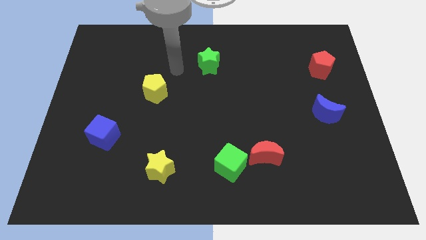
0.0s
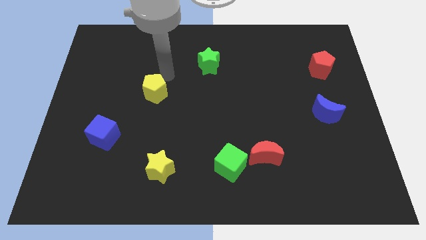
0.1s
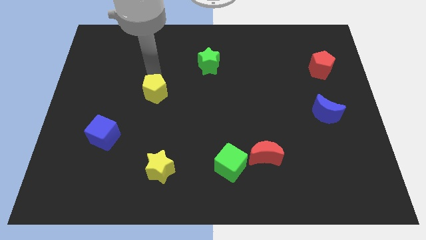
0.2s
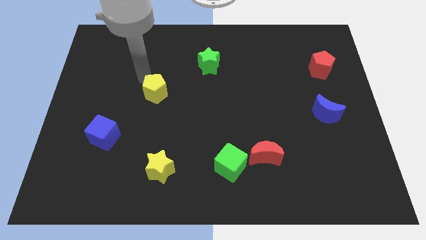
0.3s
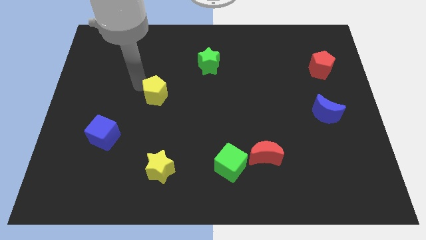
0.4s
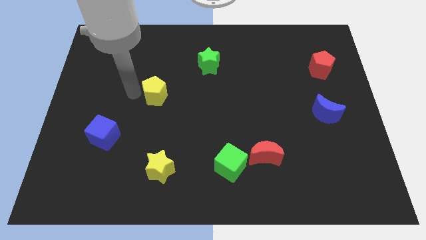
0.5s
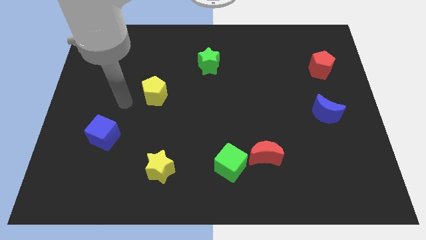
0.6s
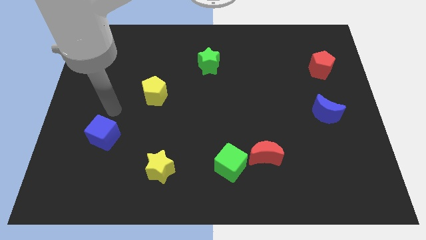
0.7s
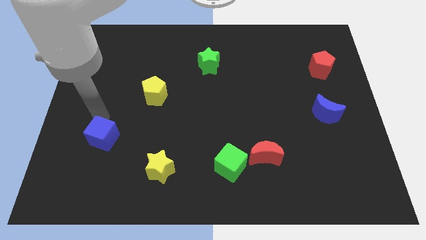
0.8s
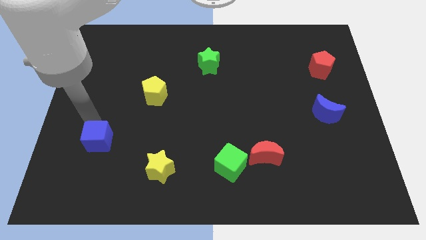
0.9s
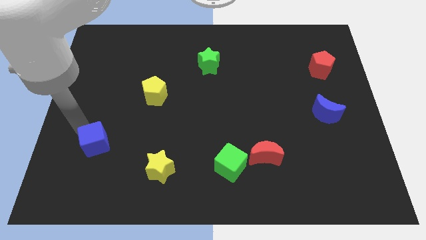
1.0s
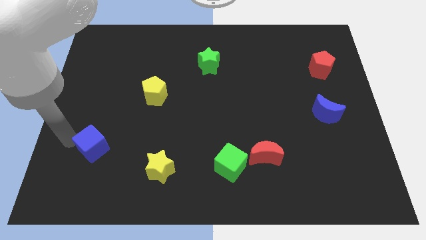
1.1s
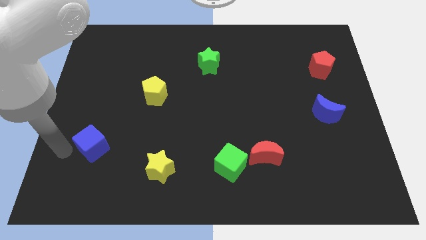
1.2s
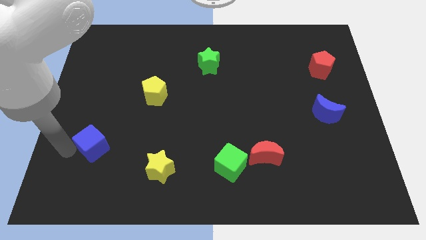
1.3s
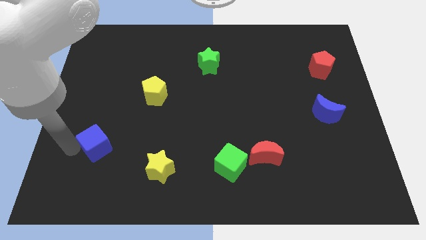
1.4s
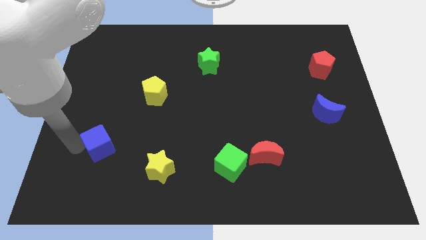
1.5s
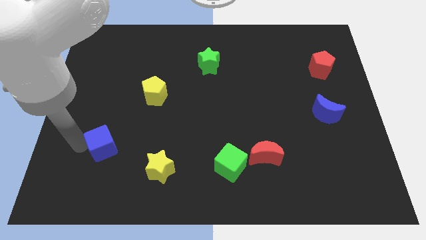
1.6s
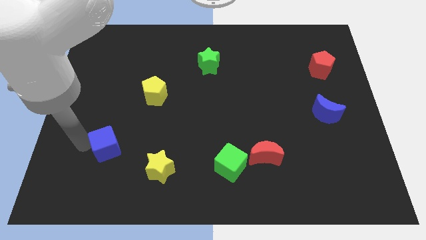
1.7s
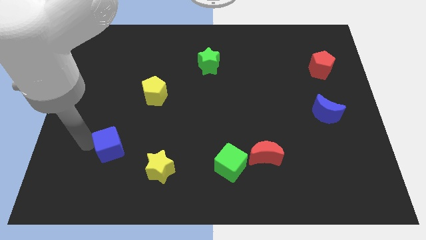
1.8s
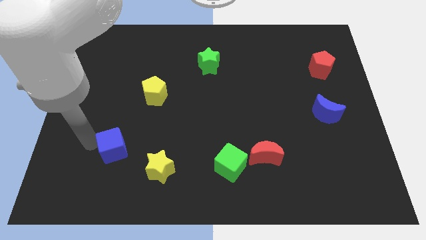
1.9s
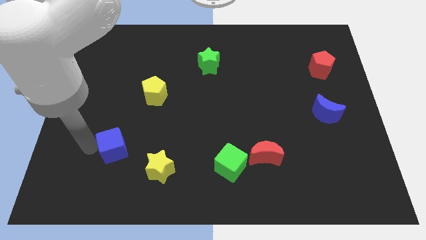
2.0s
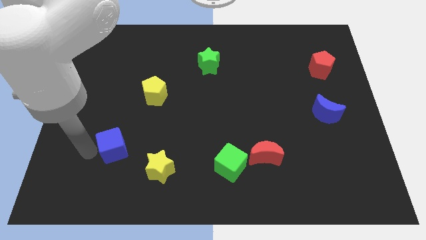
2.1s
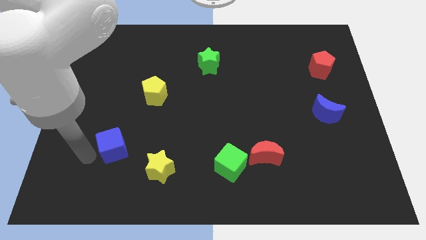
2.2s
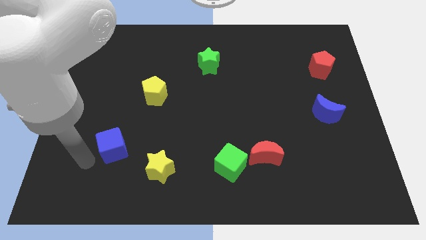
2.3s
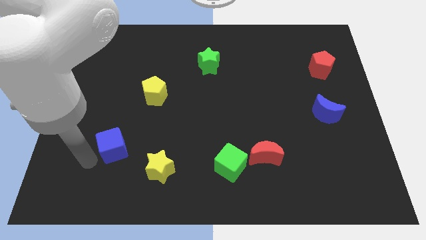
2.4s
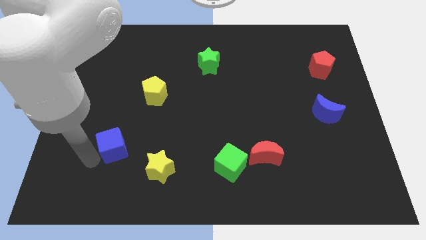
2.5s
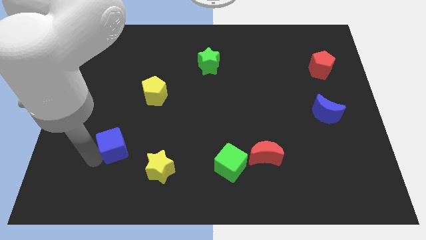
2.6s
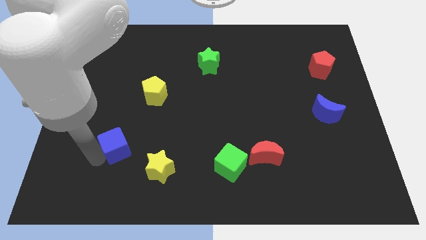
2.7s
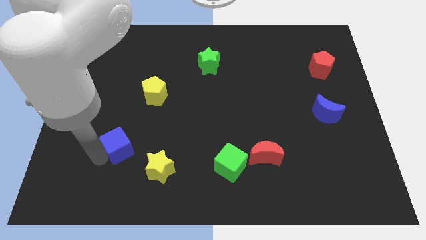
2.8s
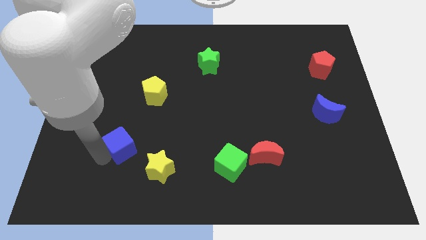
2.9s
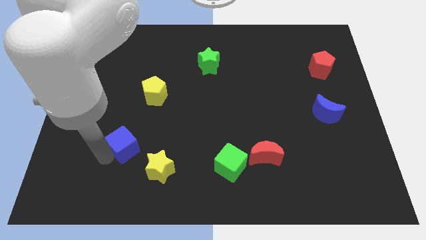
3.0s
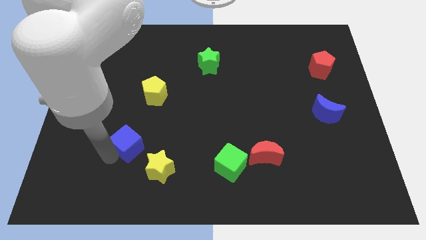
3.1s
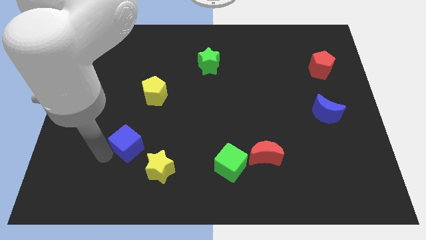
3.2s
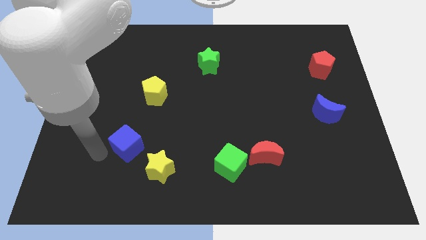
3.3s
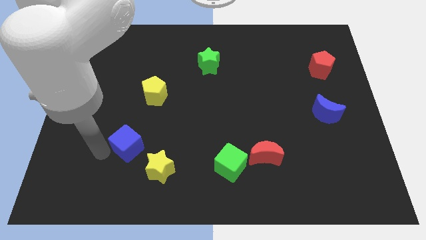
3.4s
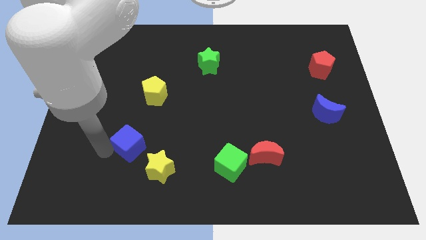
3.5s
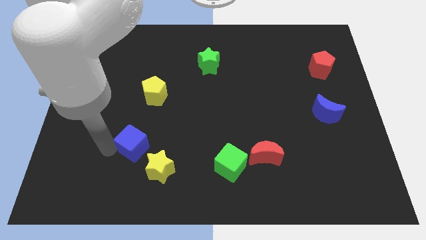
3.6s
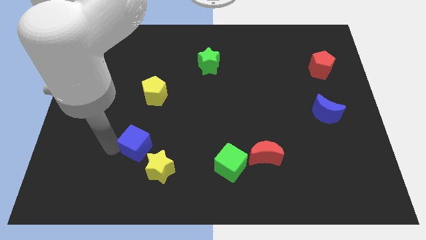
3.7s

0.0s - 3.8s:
slightly move the blue cube to the right

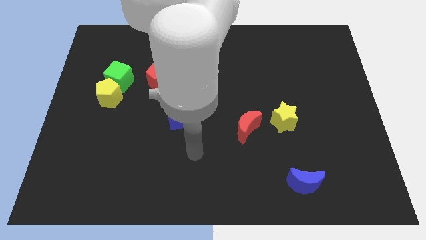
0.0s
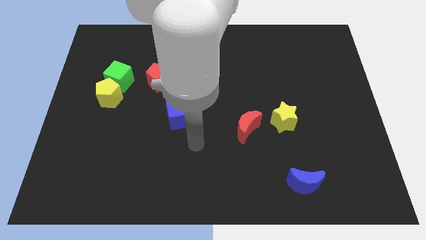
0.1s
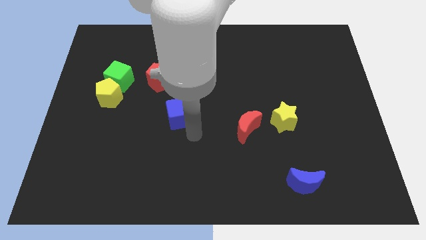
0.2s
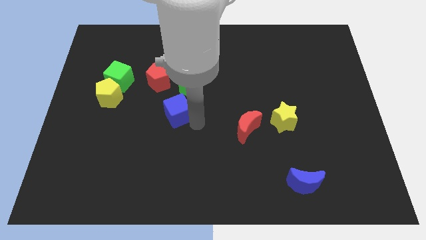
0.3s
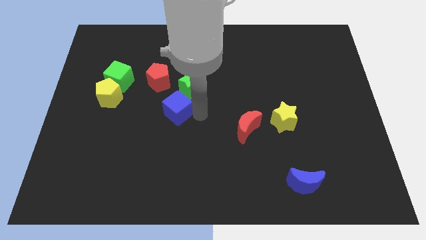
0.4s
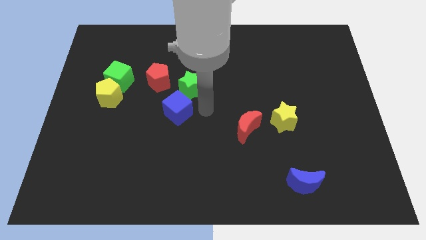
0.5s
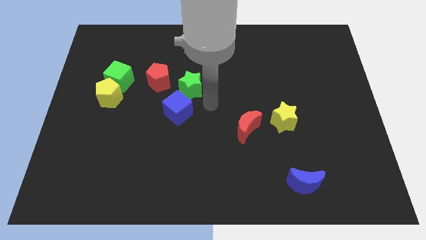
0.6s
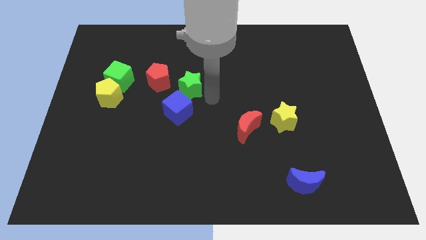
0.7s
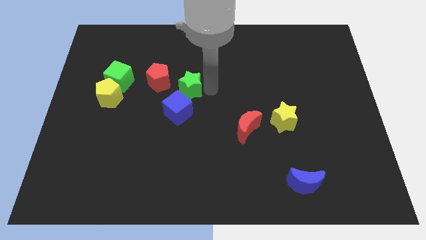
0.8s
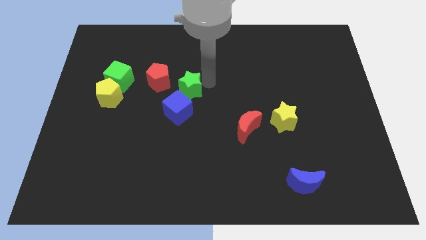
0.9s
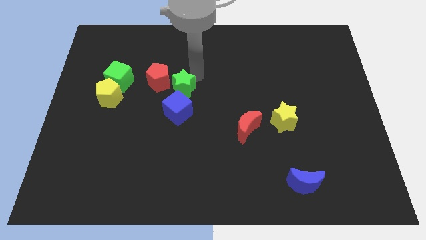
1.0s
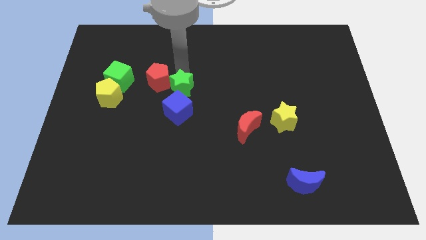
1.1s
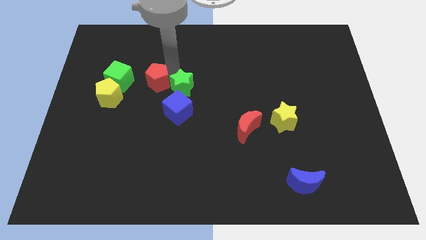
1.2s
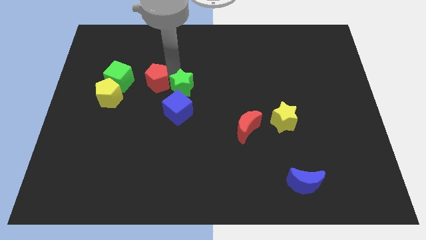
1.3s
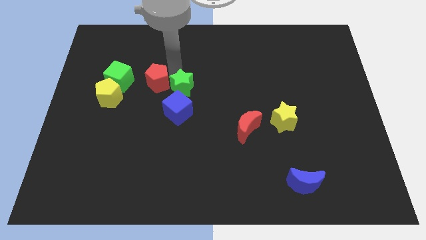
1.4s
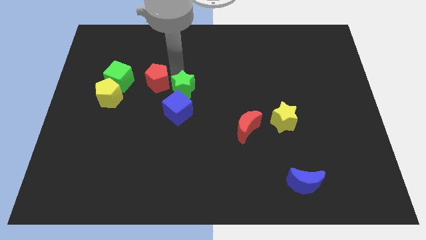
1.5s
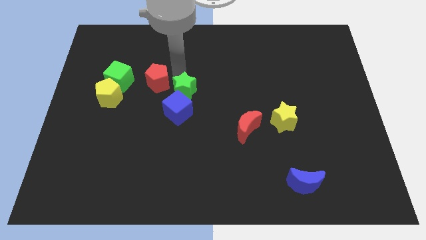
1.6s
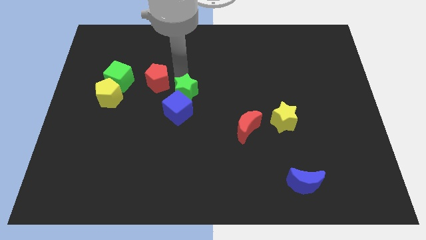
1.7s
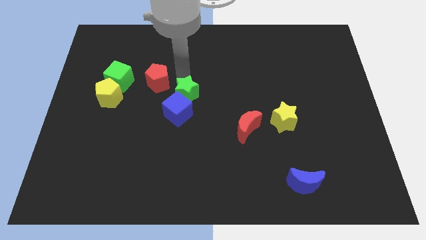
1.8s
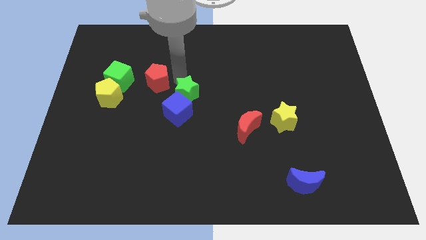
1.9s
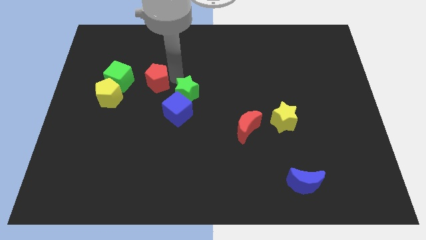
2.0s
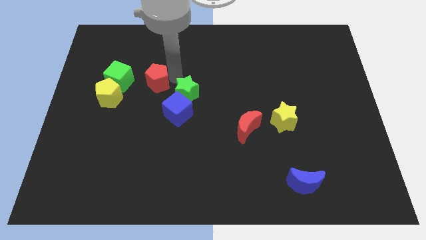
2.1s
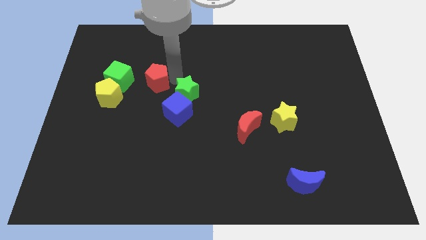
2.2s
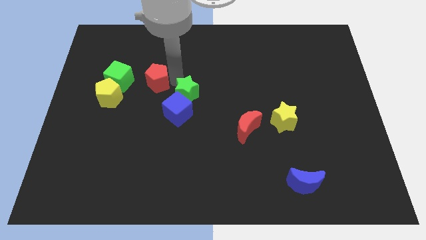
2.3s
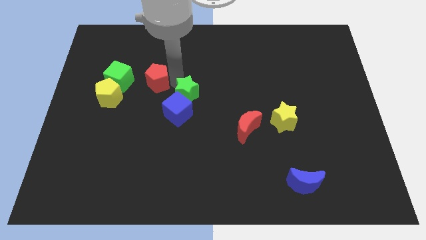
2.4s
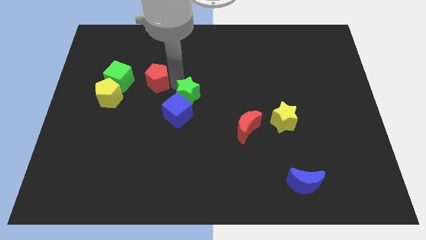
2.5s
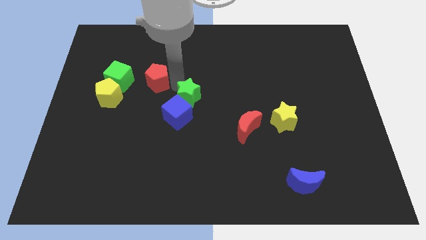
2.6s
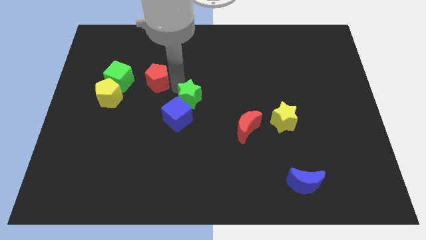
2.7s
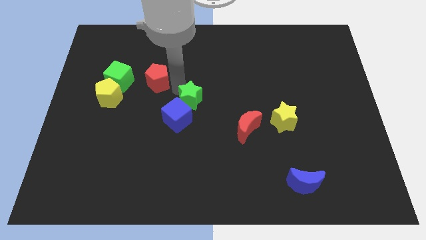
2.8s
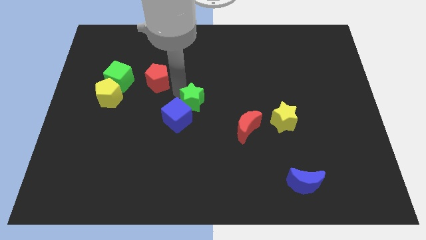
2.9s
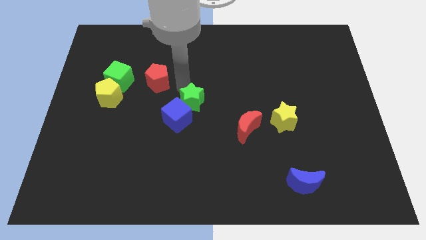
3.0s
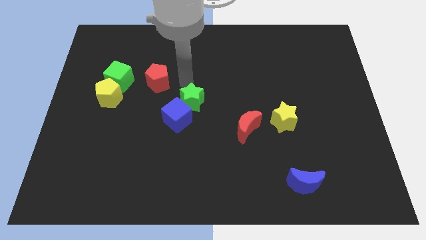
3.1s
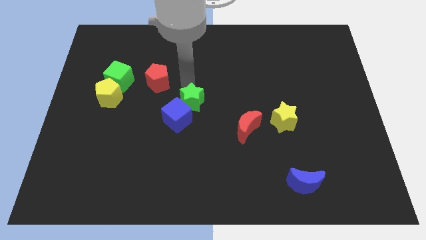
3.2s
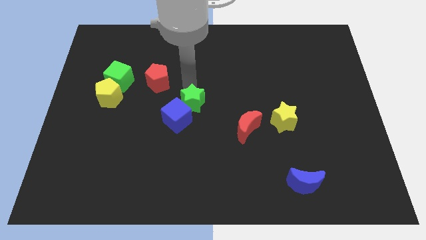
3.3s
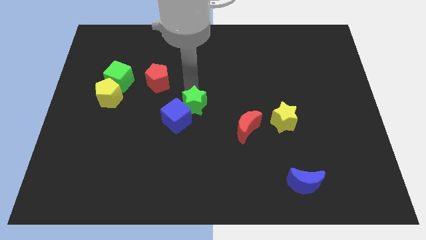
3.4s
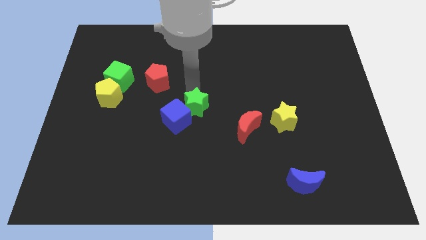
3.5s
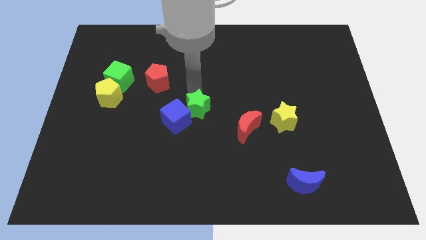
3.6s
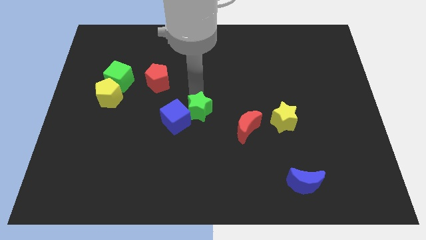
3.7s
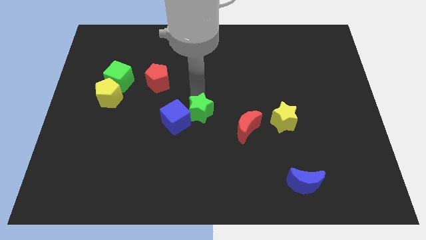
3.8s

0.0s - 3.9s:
slightly push the green star down

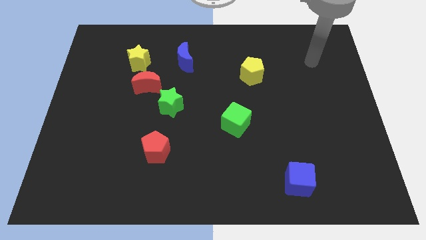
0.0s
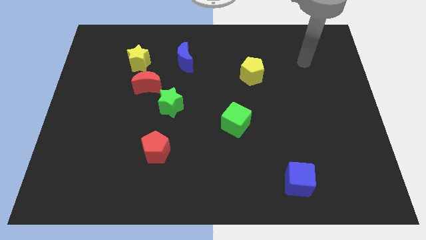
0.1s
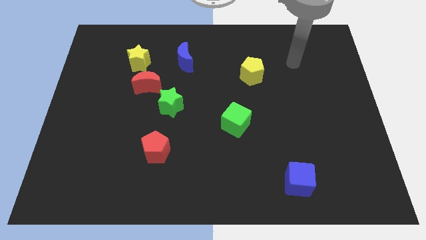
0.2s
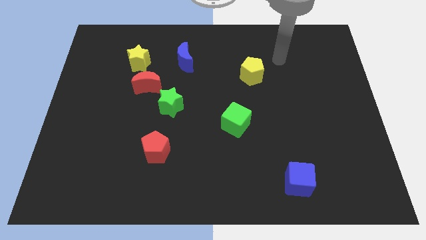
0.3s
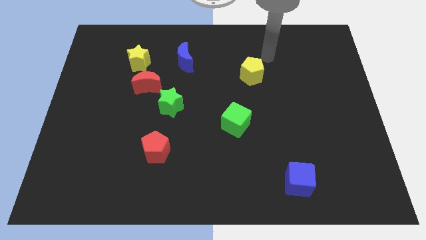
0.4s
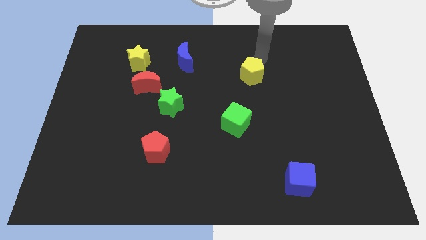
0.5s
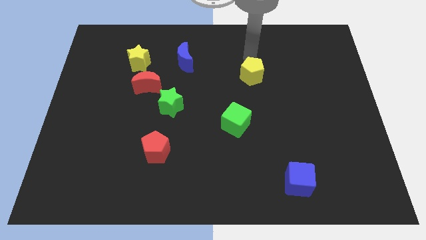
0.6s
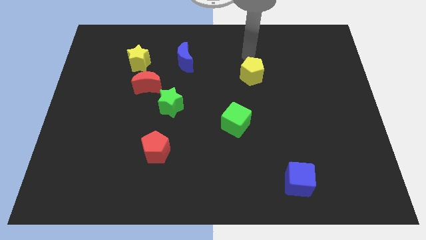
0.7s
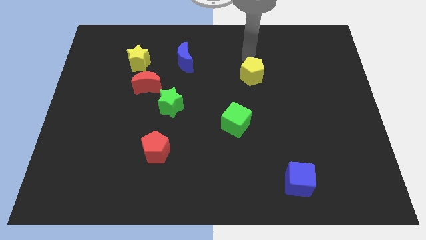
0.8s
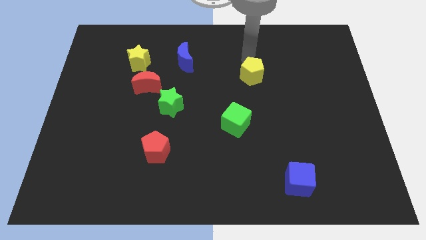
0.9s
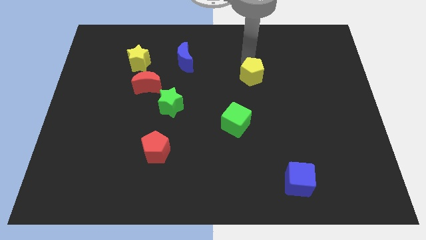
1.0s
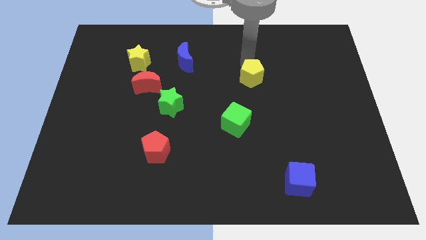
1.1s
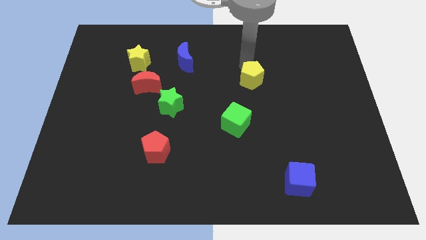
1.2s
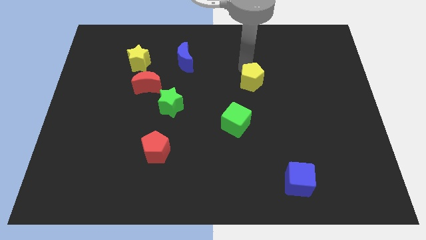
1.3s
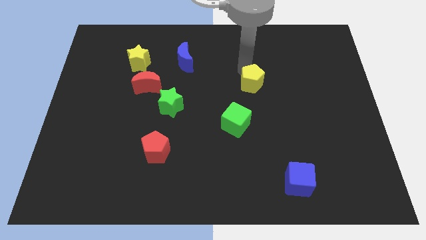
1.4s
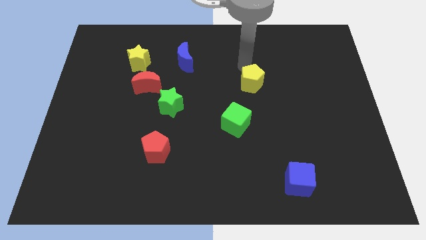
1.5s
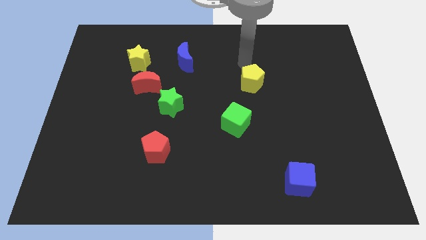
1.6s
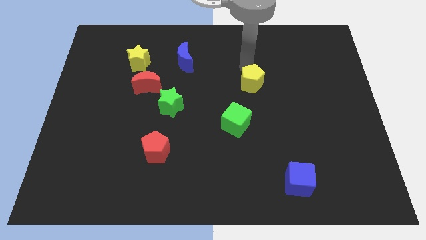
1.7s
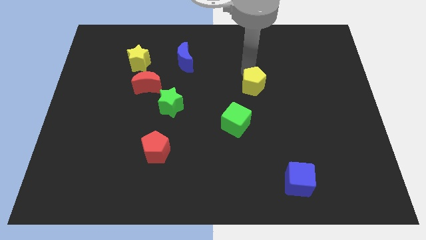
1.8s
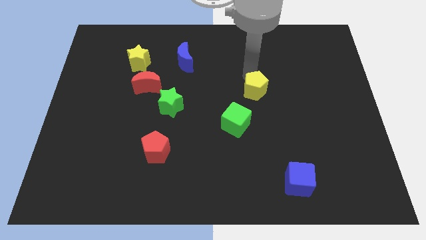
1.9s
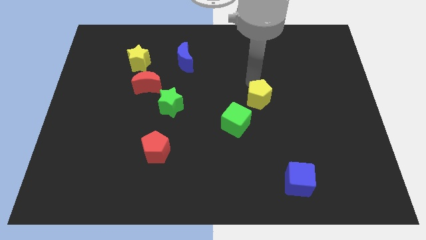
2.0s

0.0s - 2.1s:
slide the yellow pentagon a bit down
